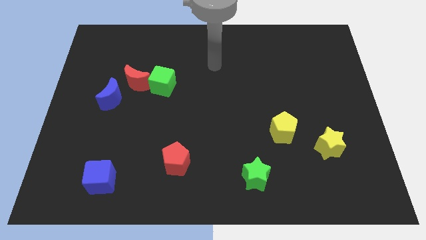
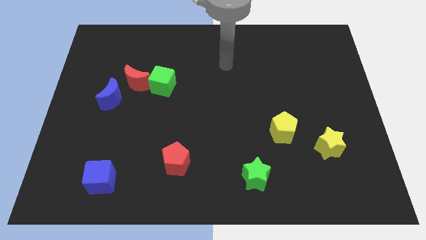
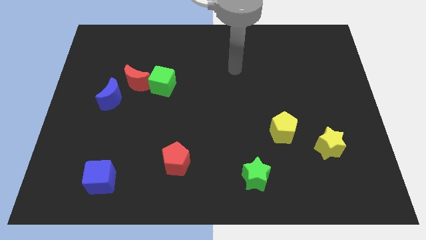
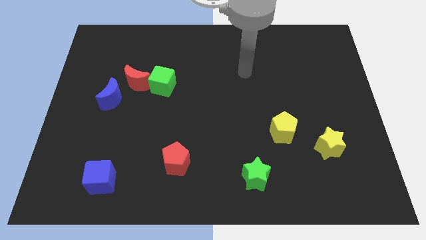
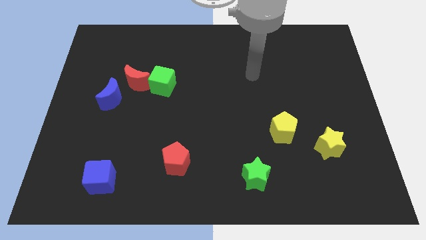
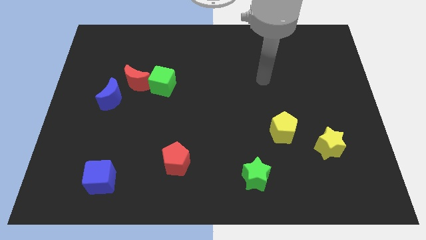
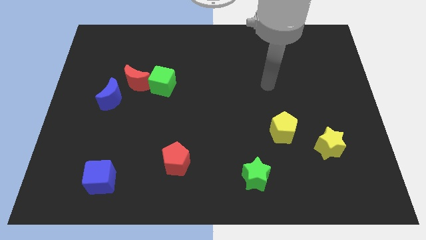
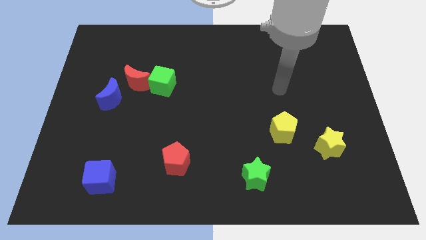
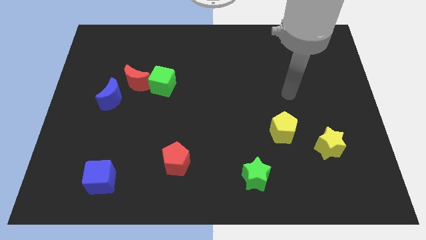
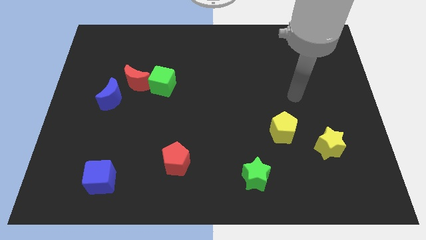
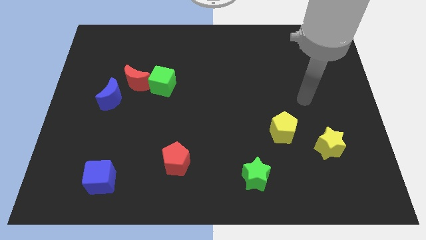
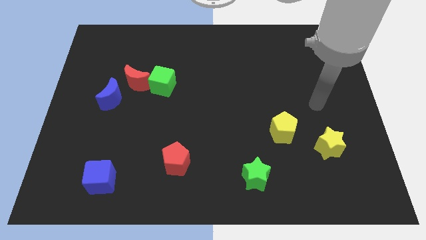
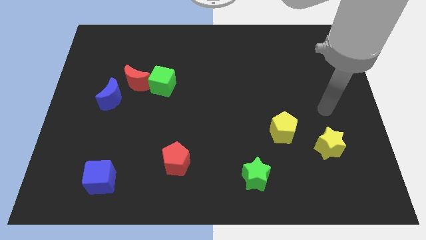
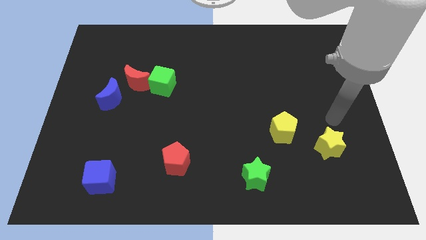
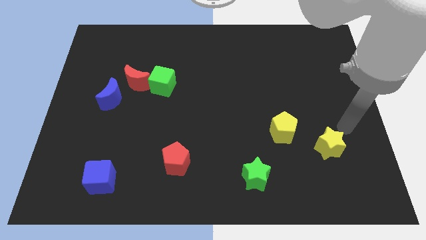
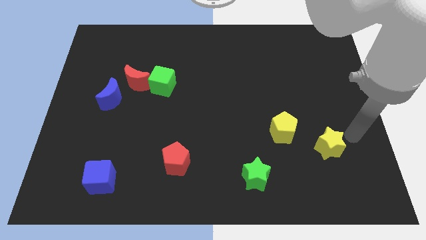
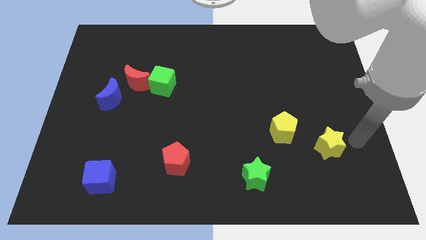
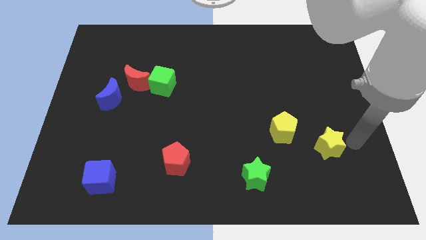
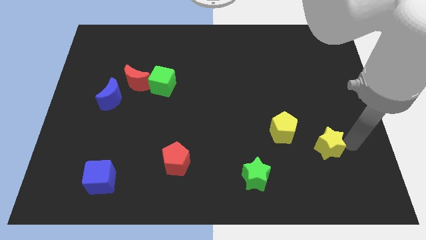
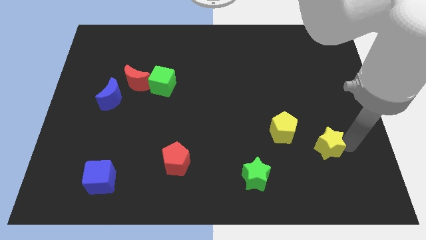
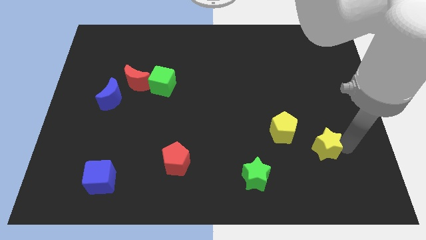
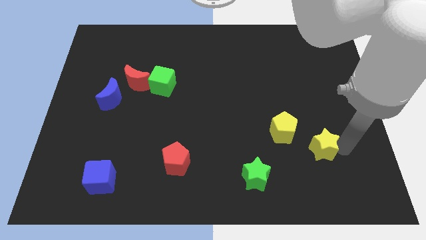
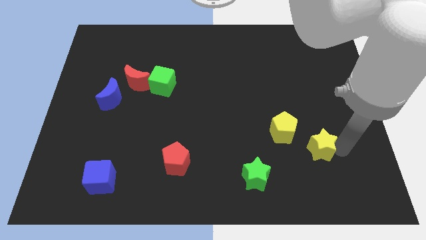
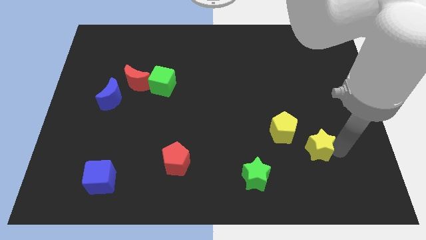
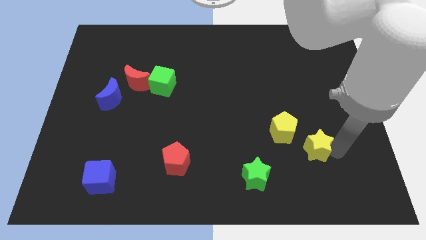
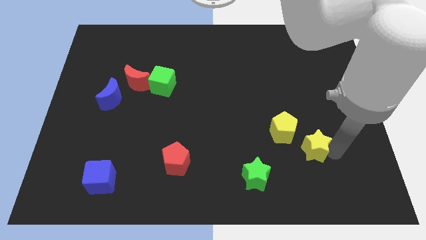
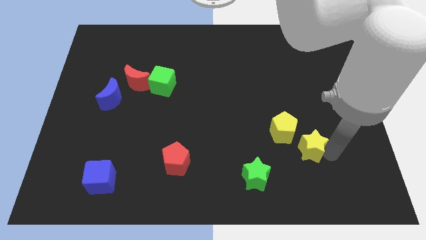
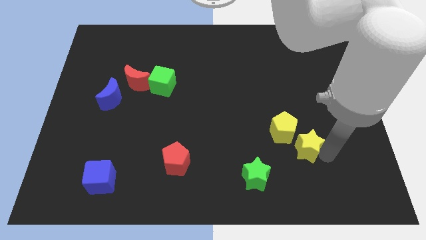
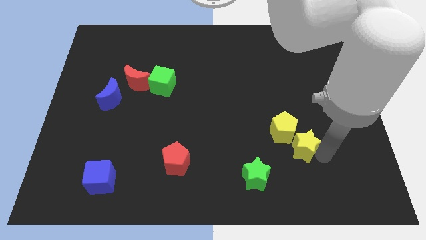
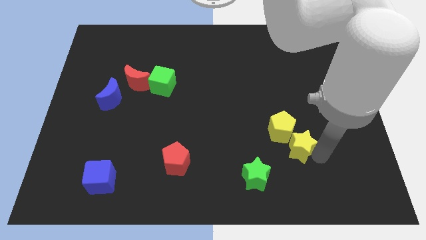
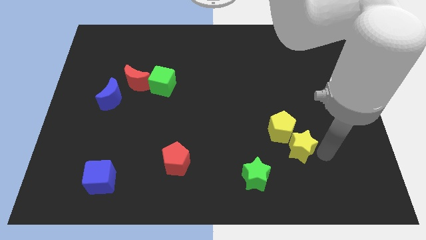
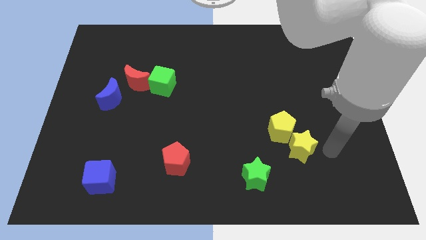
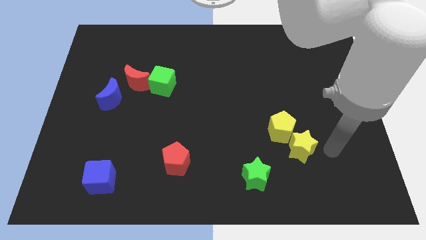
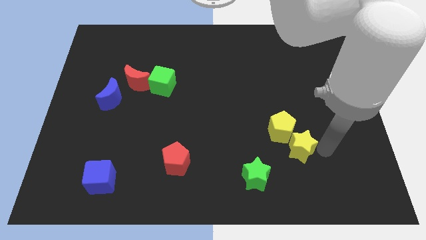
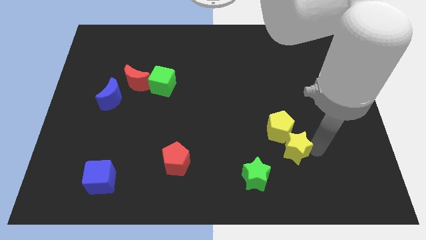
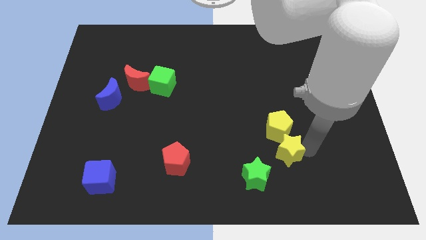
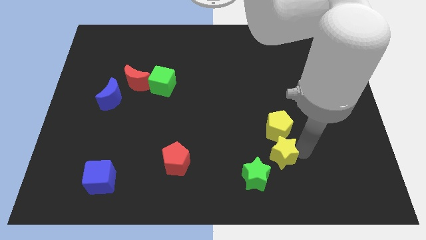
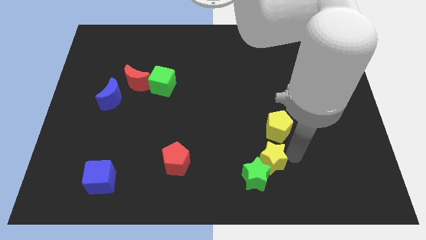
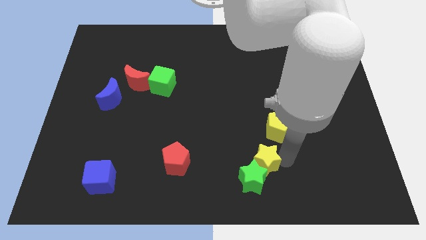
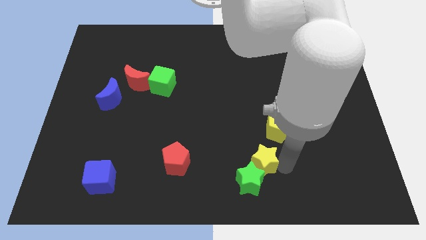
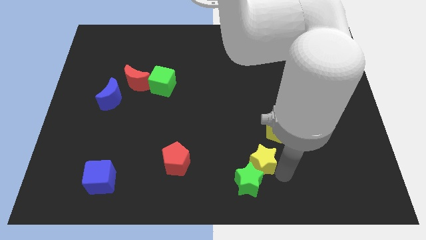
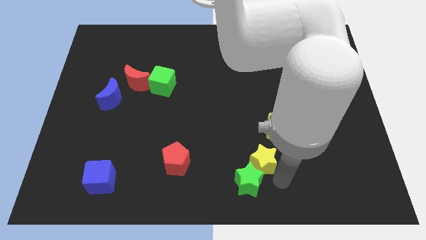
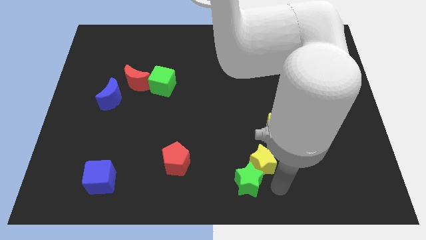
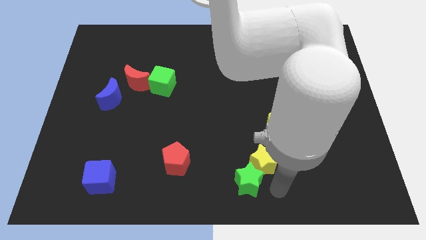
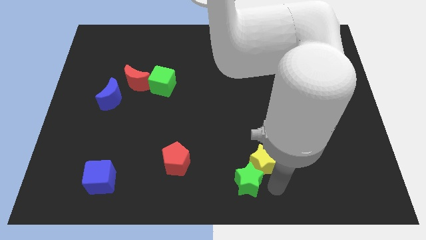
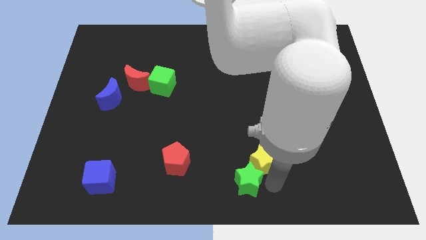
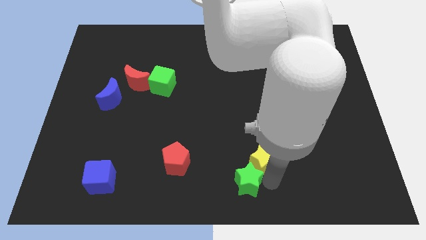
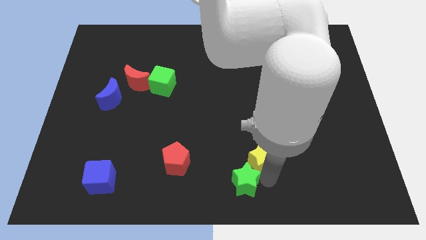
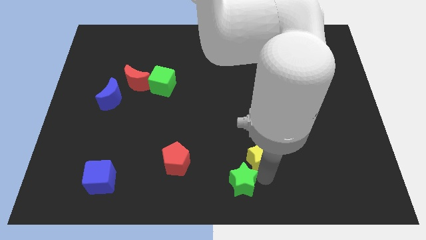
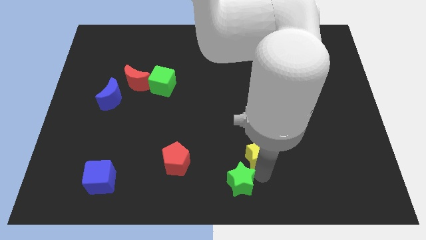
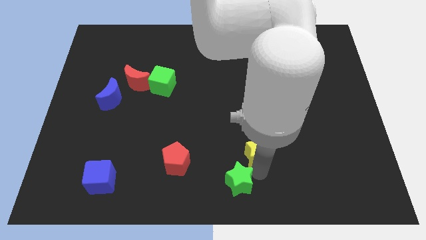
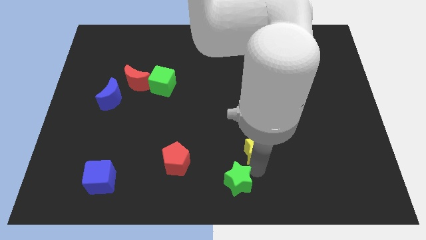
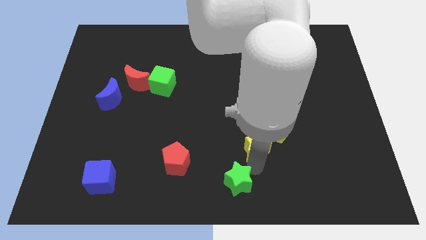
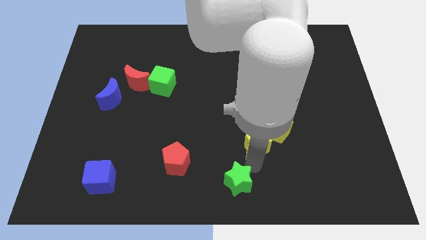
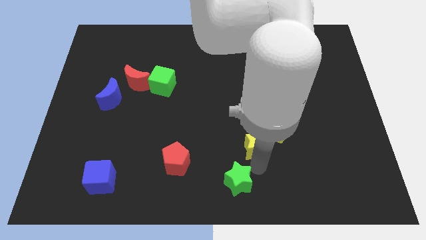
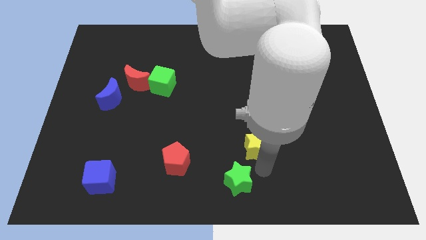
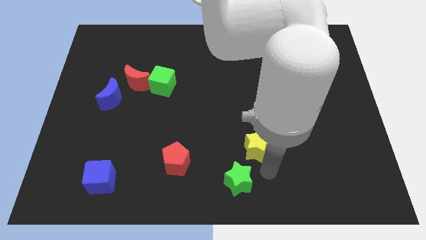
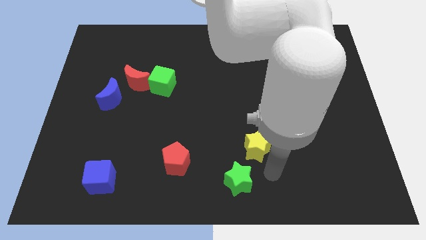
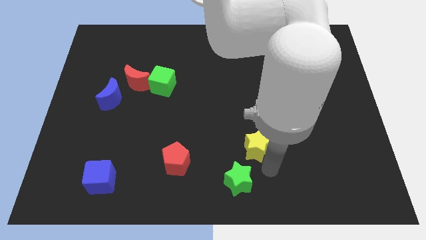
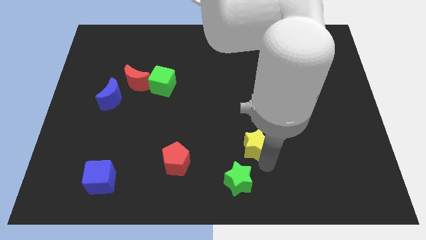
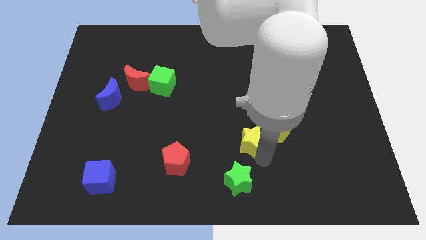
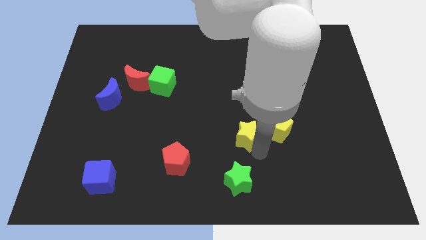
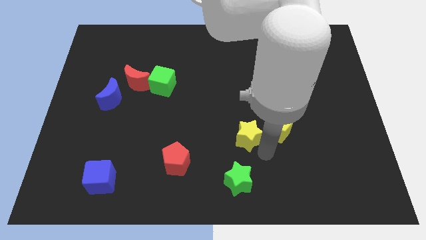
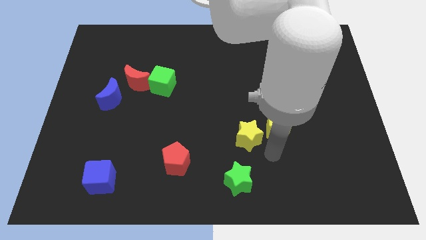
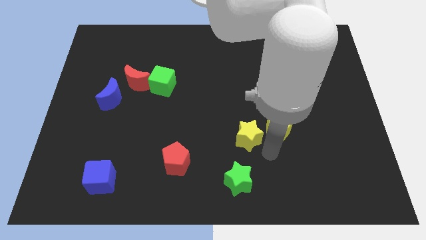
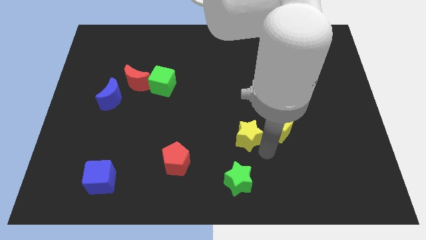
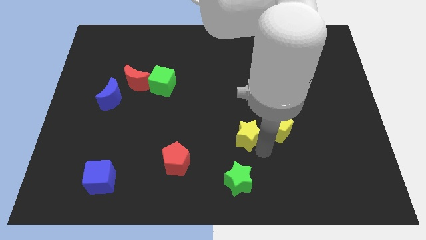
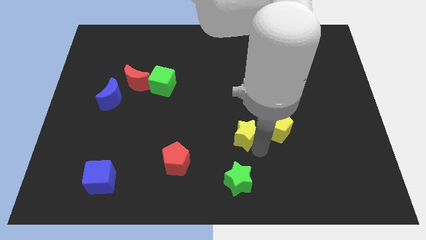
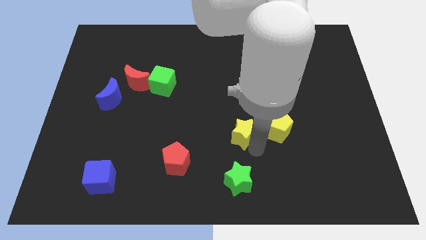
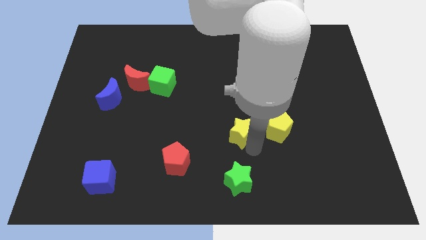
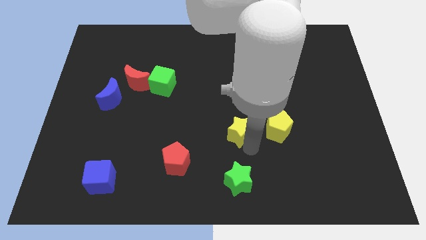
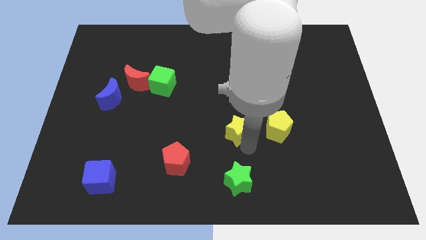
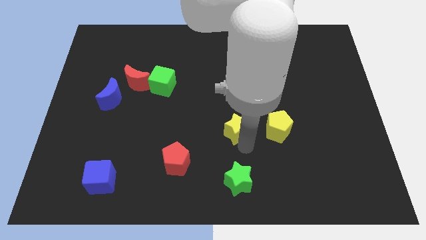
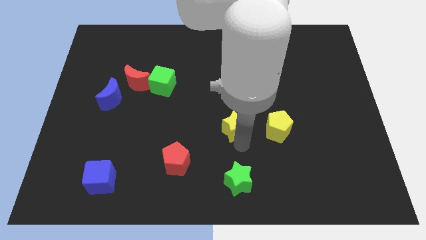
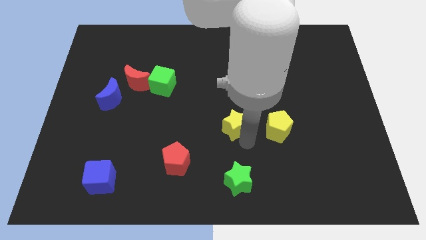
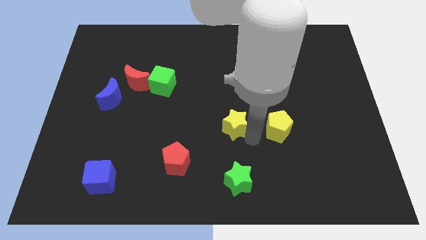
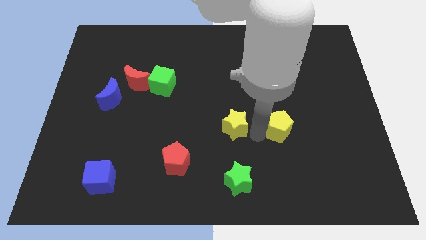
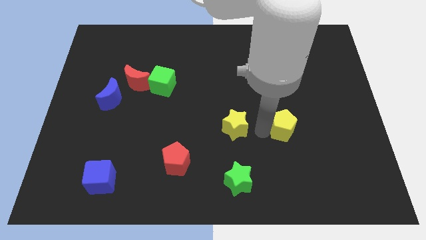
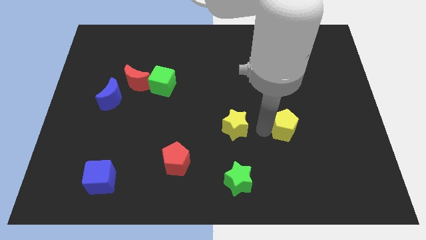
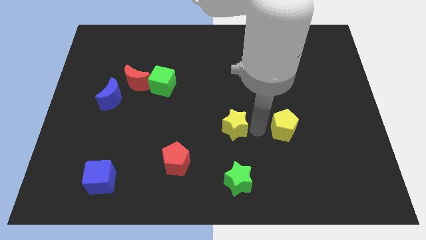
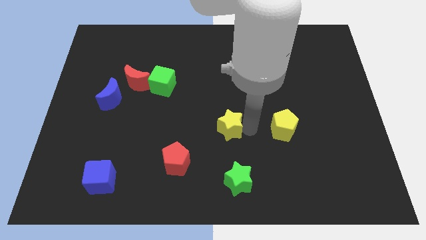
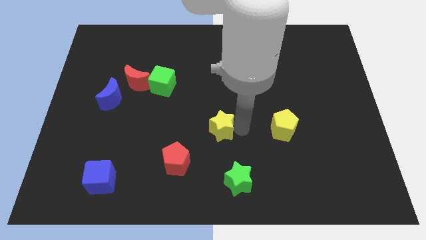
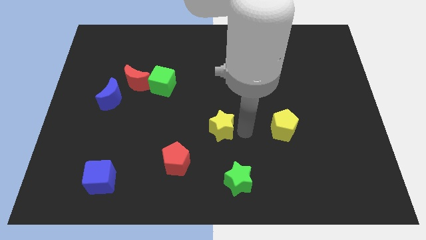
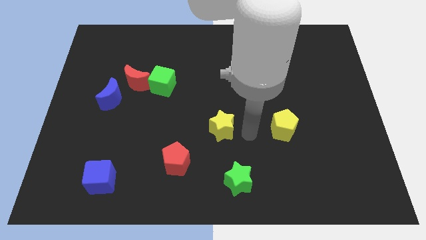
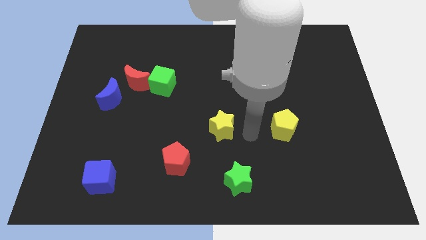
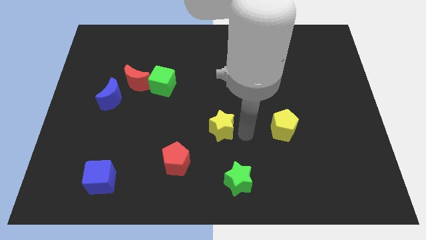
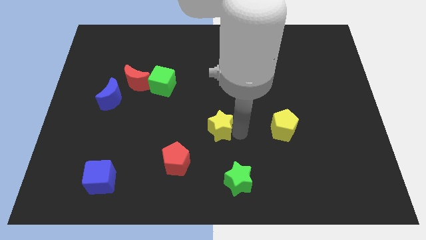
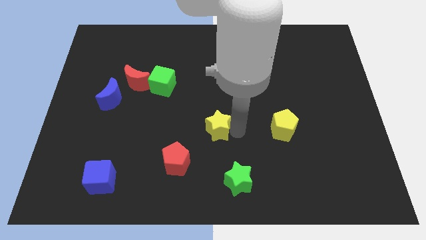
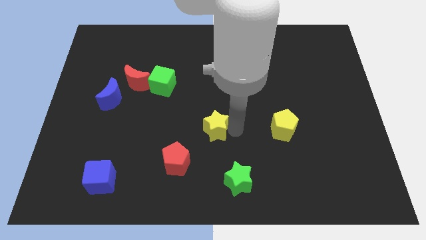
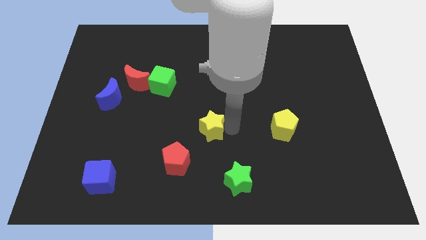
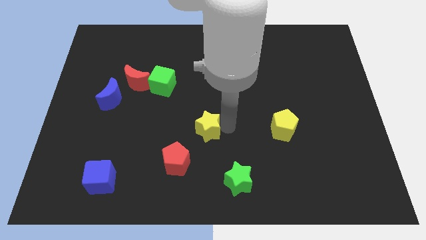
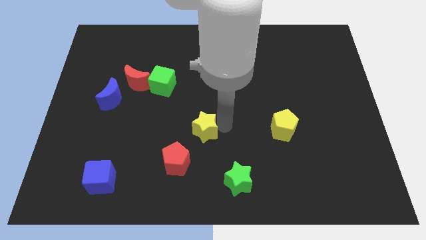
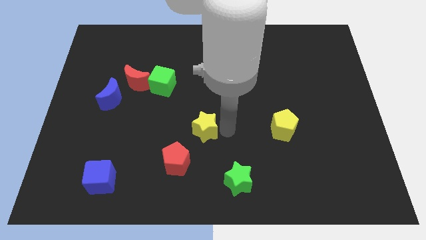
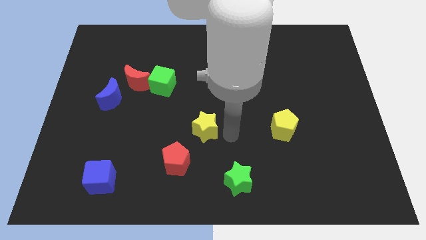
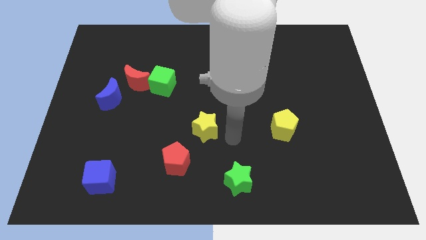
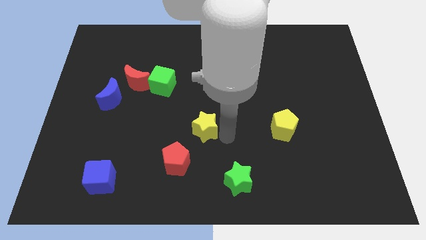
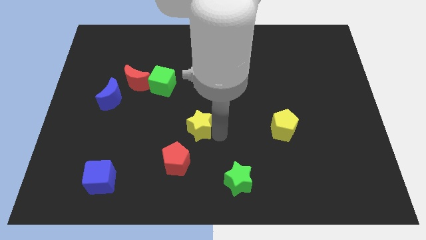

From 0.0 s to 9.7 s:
push the yellow star to the top side of the red pentagon
